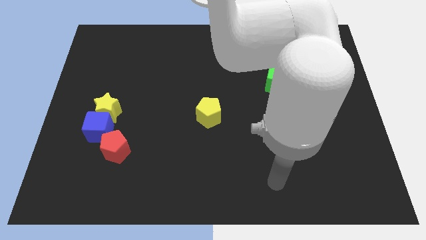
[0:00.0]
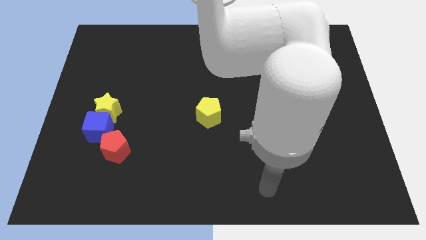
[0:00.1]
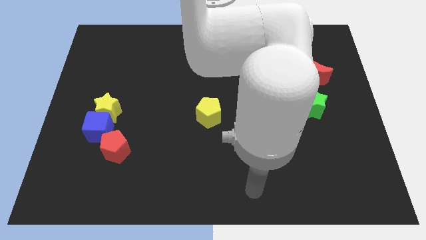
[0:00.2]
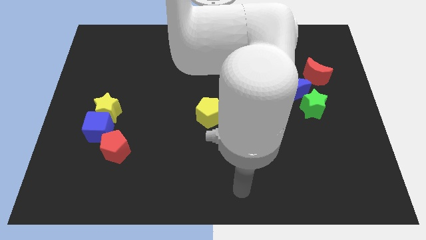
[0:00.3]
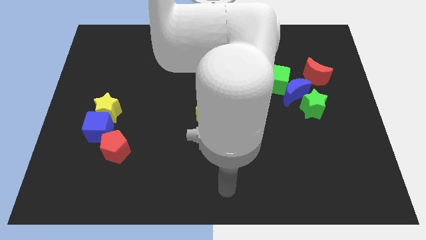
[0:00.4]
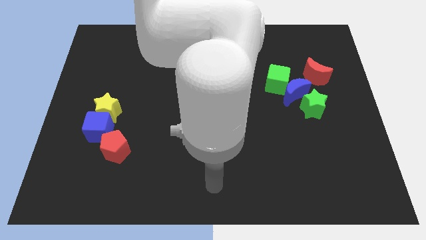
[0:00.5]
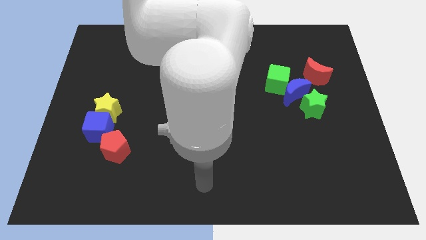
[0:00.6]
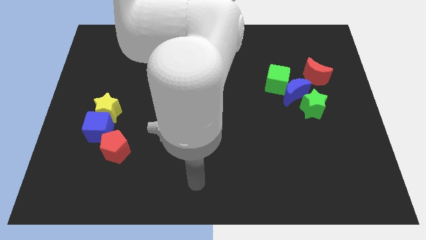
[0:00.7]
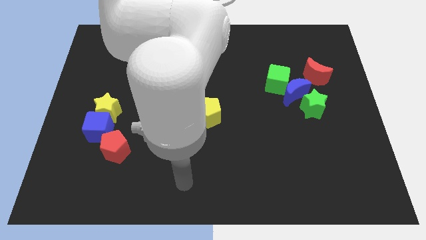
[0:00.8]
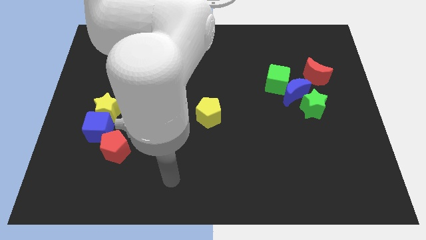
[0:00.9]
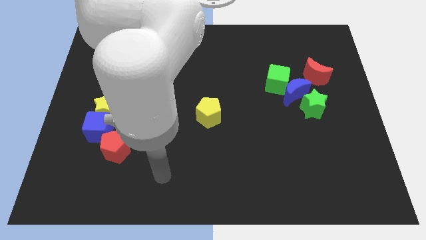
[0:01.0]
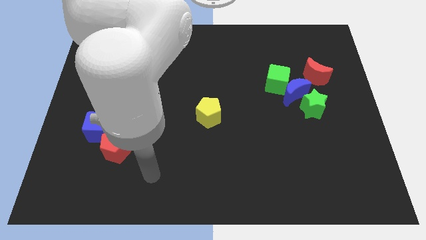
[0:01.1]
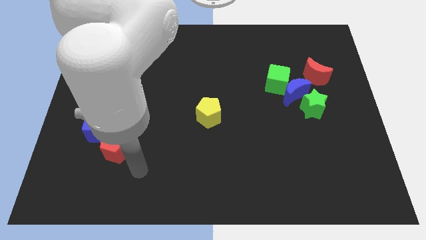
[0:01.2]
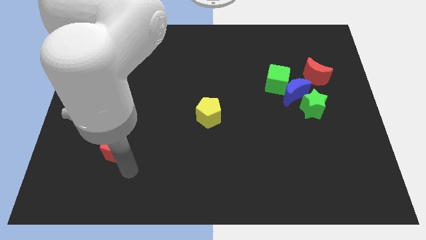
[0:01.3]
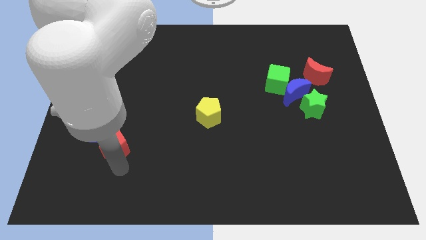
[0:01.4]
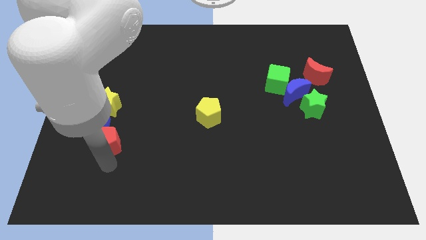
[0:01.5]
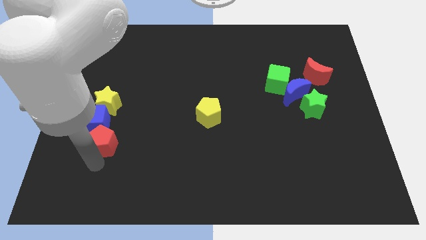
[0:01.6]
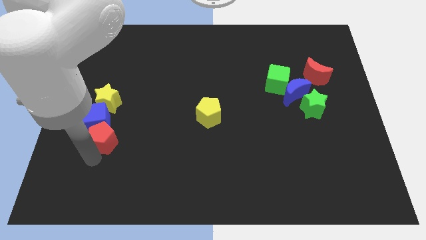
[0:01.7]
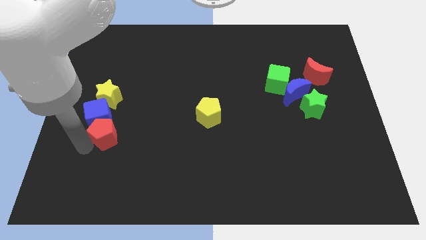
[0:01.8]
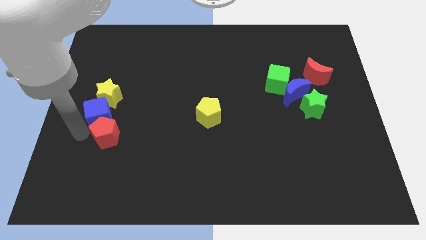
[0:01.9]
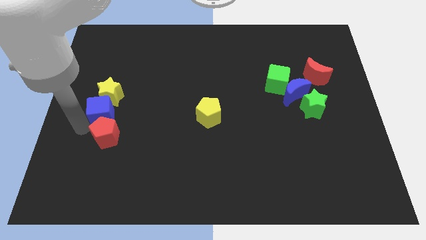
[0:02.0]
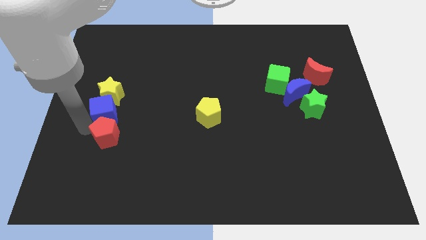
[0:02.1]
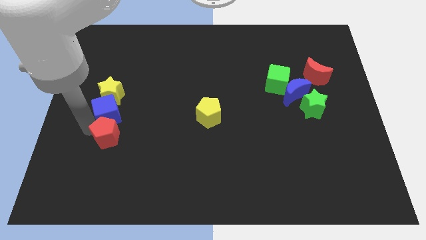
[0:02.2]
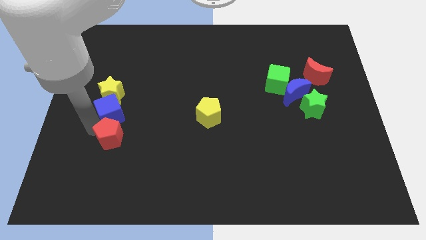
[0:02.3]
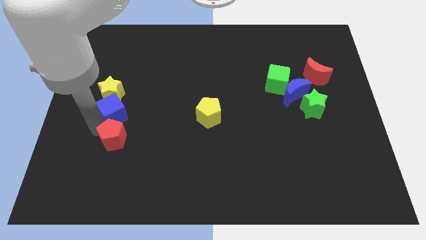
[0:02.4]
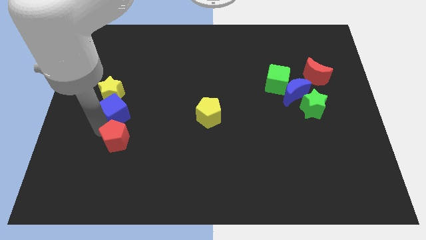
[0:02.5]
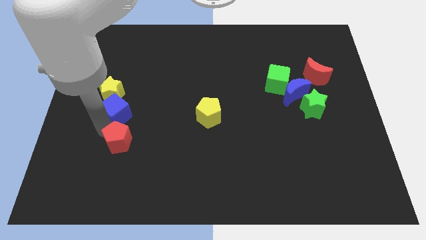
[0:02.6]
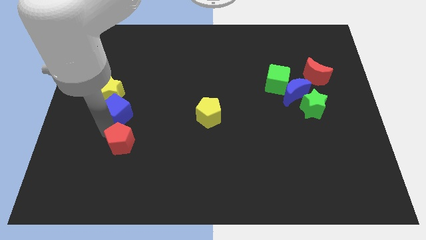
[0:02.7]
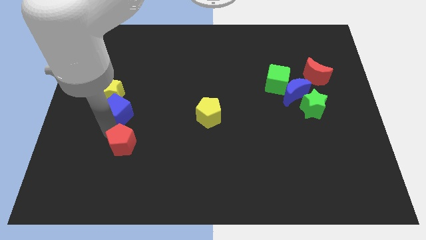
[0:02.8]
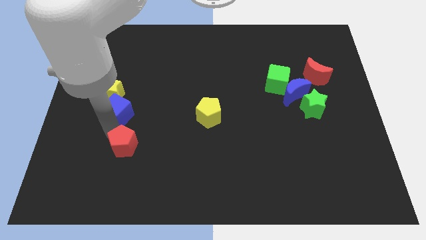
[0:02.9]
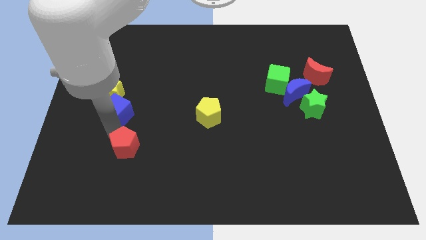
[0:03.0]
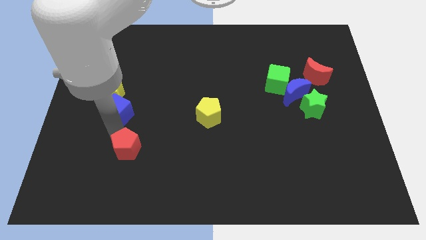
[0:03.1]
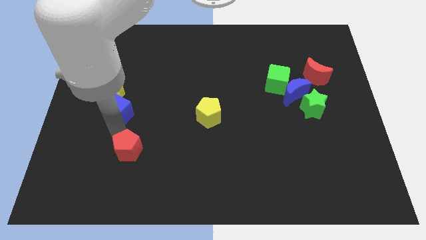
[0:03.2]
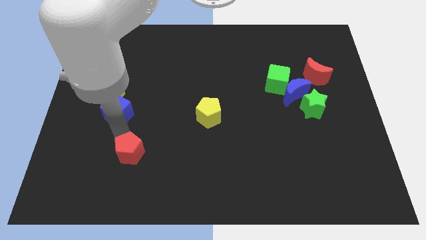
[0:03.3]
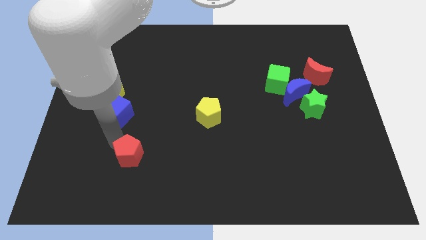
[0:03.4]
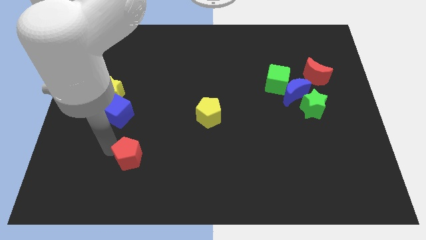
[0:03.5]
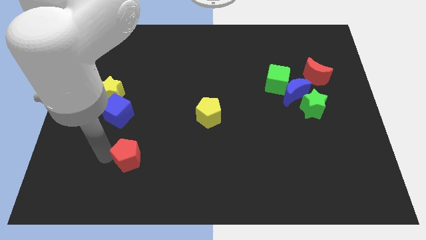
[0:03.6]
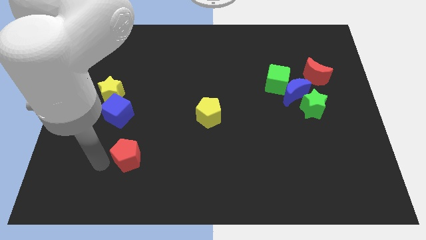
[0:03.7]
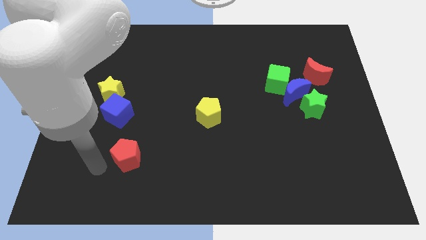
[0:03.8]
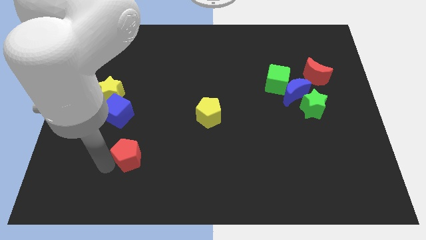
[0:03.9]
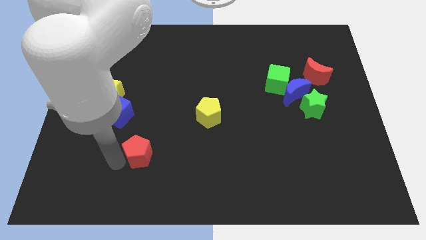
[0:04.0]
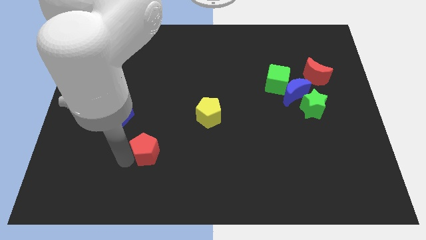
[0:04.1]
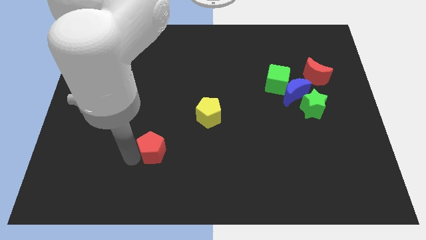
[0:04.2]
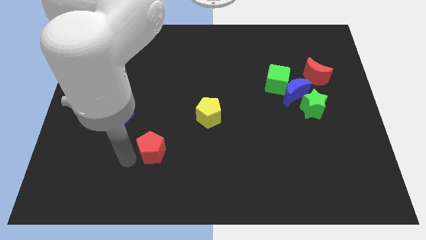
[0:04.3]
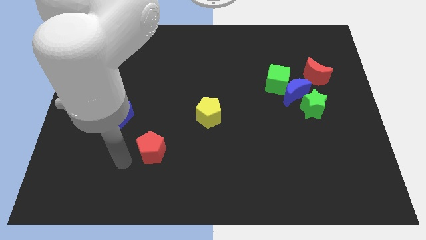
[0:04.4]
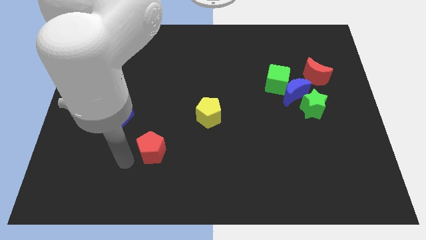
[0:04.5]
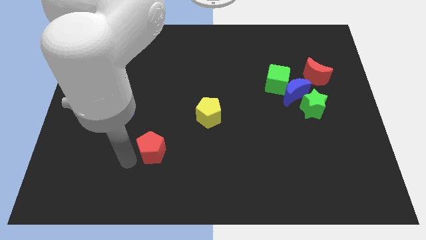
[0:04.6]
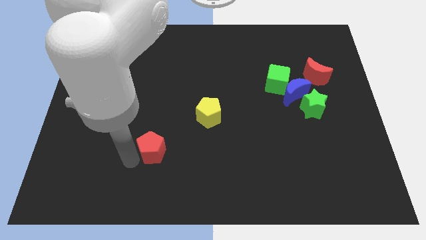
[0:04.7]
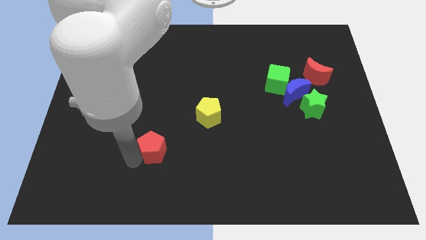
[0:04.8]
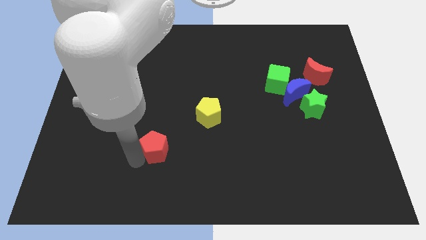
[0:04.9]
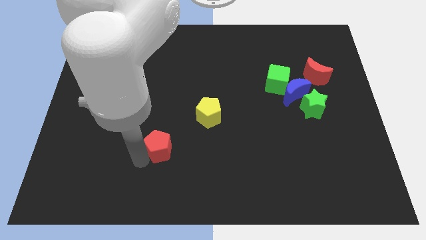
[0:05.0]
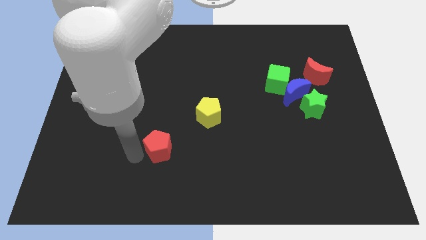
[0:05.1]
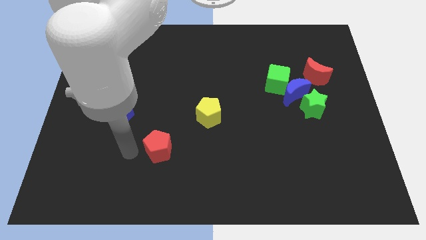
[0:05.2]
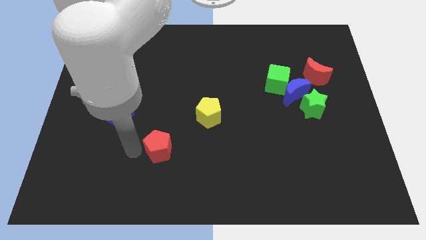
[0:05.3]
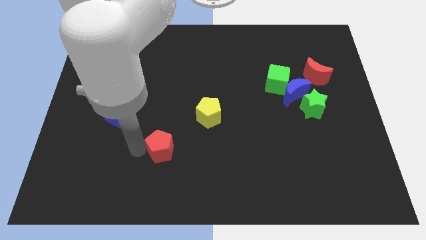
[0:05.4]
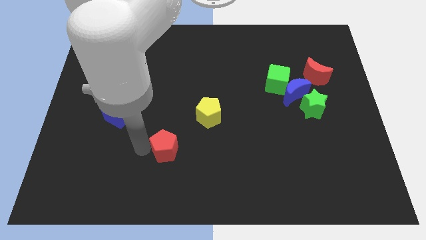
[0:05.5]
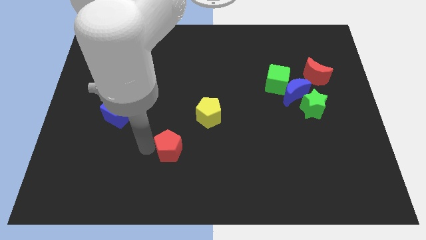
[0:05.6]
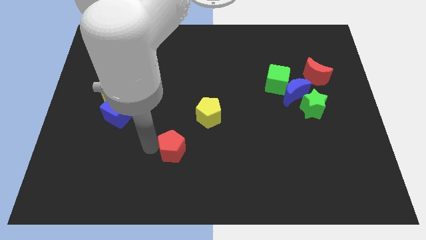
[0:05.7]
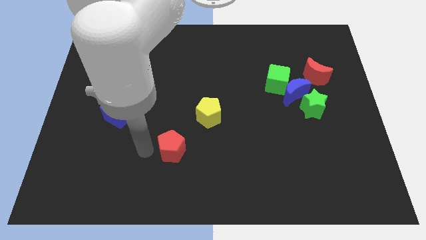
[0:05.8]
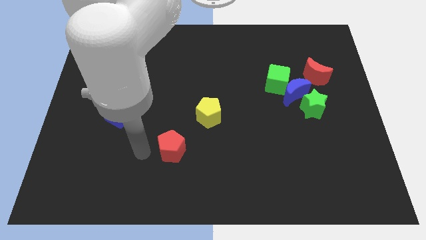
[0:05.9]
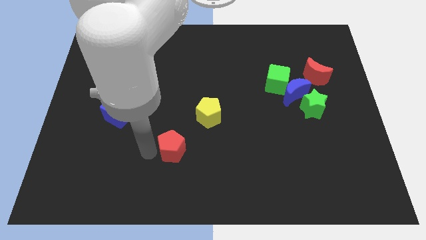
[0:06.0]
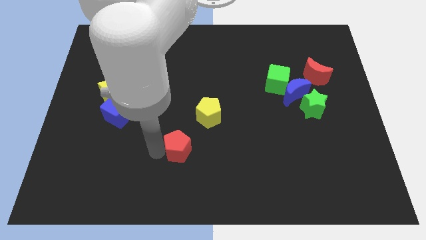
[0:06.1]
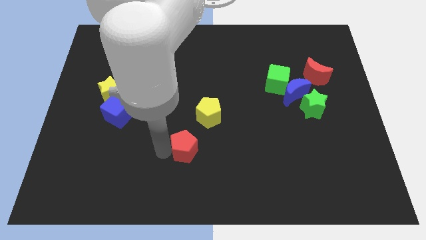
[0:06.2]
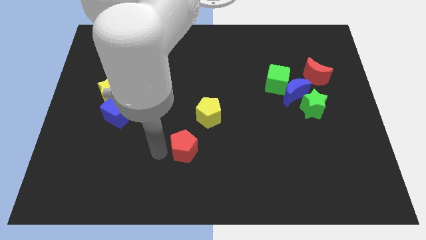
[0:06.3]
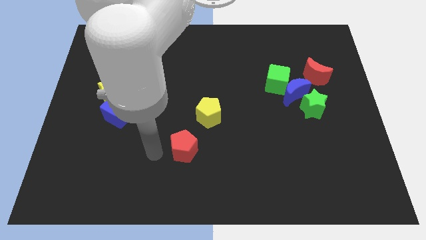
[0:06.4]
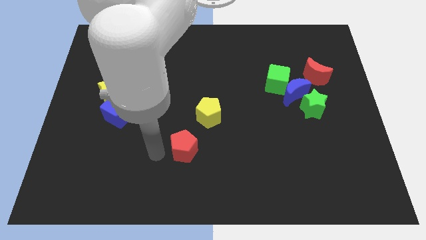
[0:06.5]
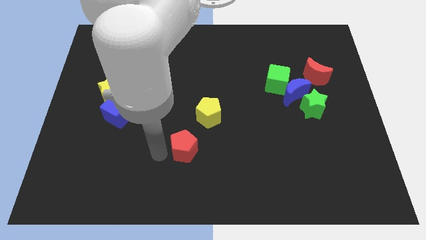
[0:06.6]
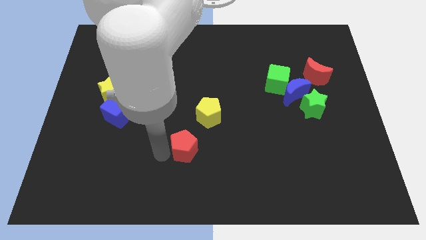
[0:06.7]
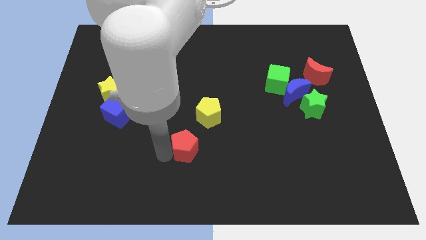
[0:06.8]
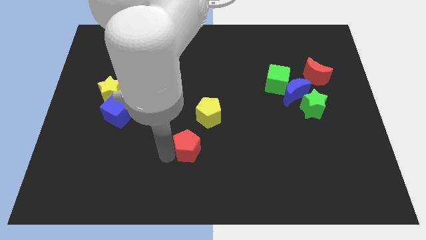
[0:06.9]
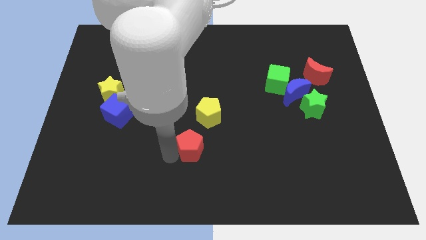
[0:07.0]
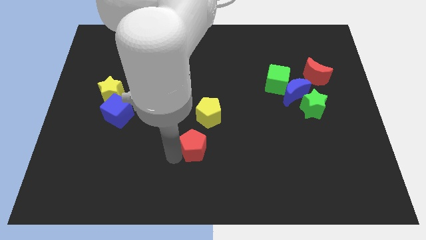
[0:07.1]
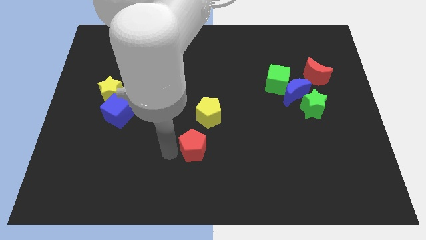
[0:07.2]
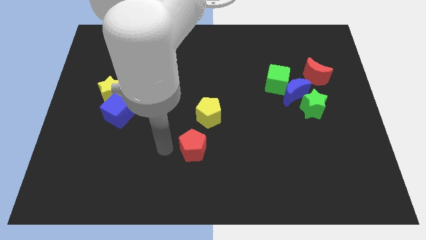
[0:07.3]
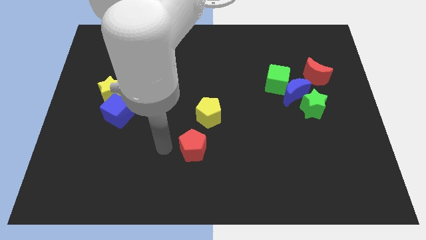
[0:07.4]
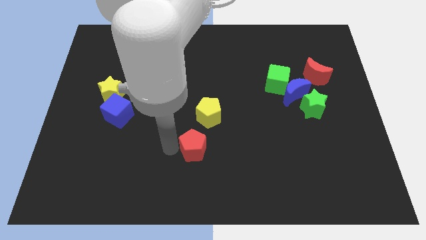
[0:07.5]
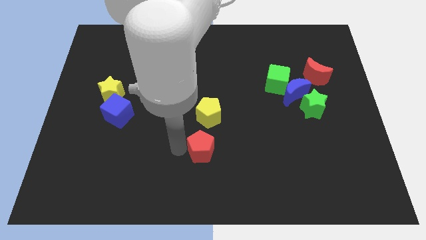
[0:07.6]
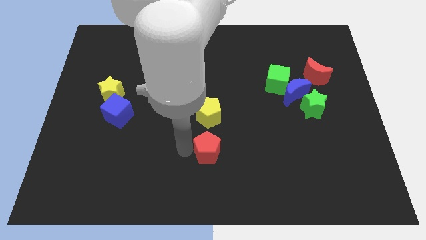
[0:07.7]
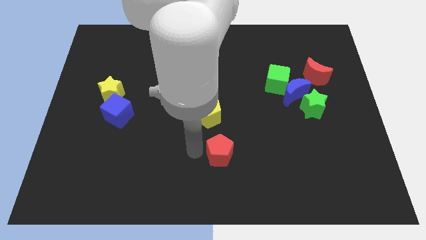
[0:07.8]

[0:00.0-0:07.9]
push the red pentagon right

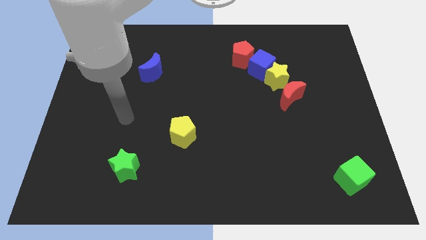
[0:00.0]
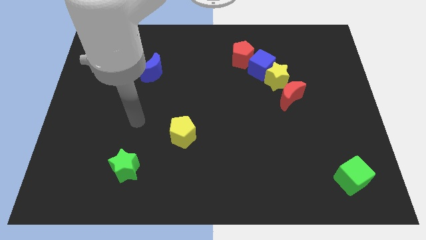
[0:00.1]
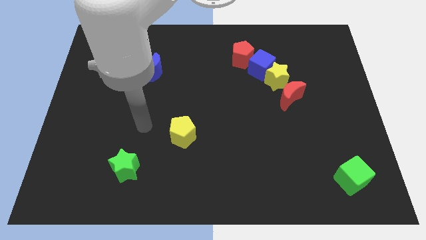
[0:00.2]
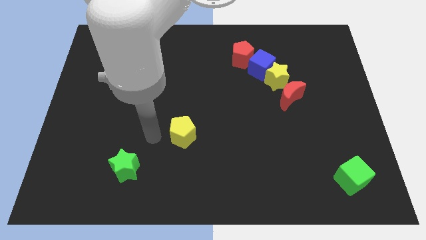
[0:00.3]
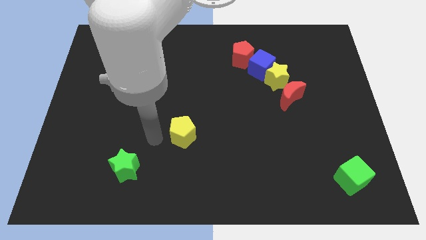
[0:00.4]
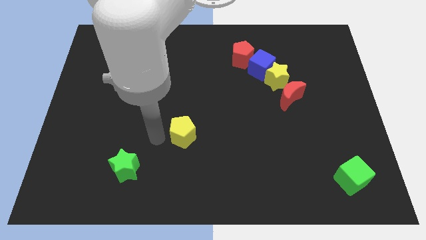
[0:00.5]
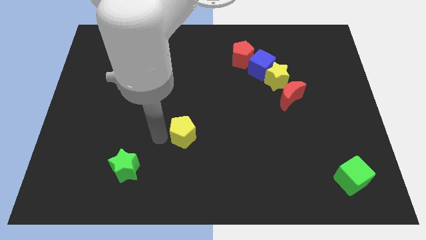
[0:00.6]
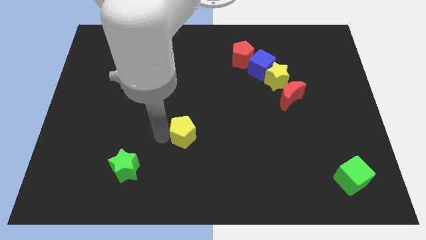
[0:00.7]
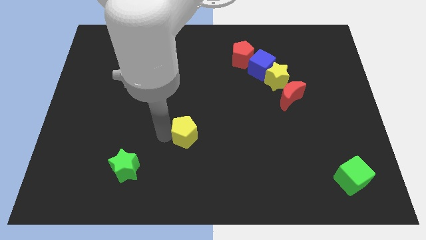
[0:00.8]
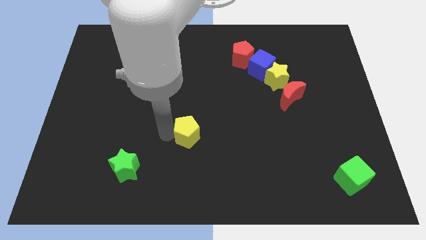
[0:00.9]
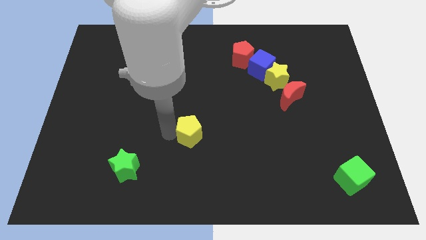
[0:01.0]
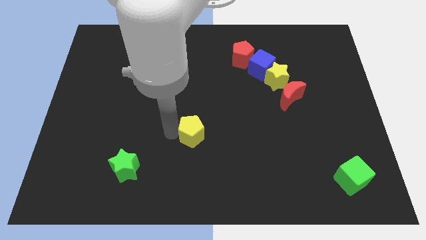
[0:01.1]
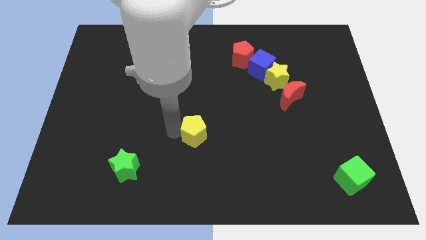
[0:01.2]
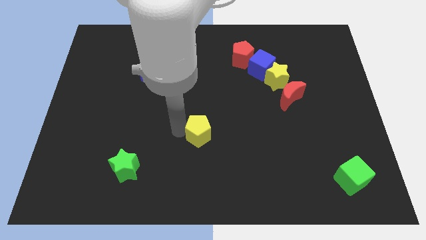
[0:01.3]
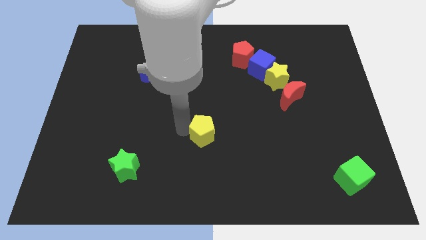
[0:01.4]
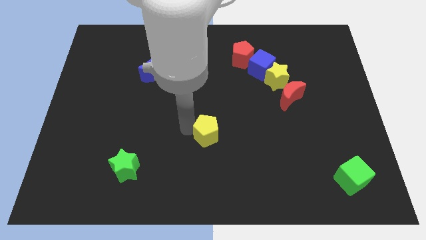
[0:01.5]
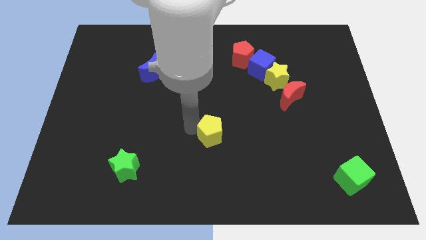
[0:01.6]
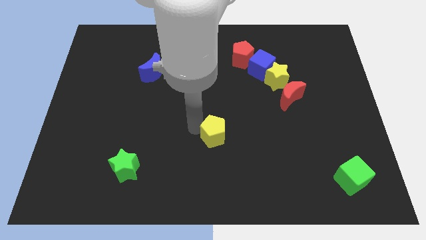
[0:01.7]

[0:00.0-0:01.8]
slightly push the yellow pentagon to the right
